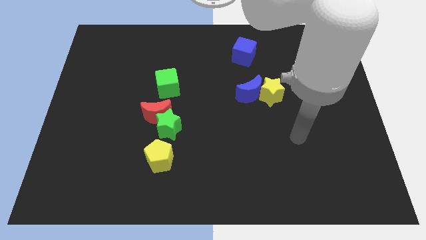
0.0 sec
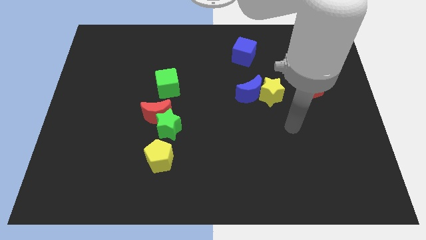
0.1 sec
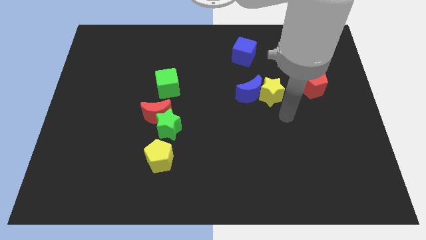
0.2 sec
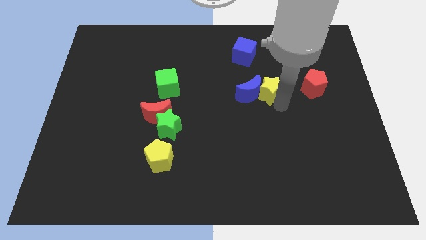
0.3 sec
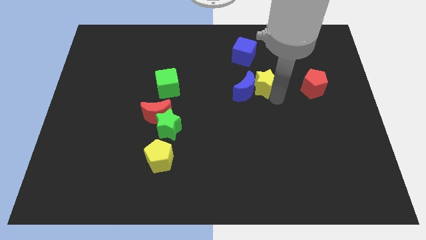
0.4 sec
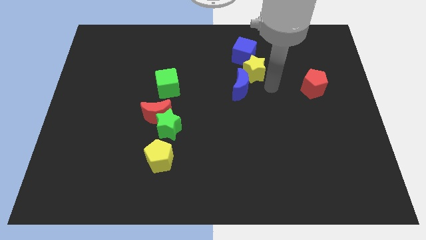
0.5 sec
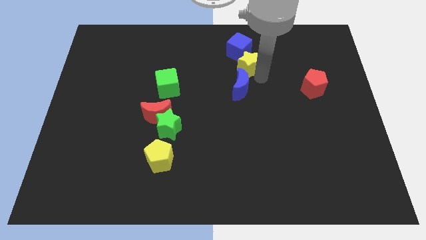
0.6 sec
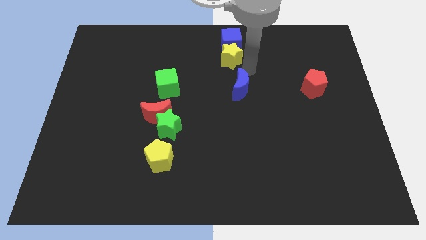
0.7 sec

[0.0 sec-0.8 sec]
separate the blue moon from the yellow star

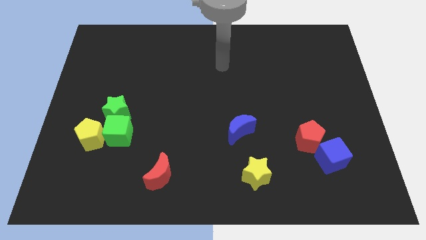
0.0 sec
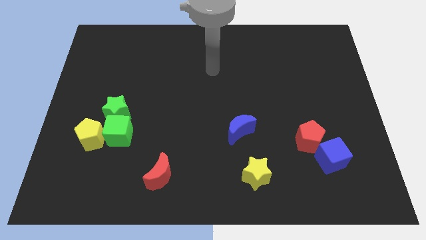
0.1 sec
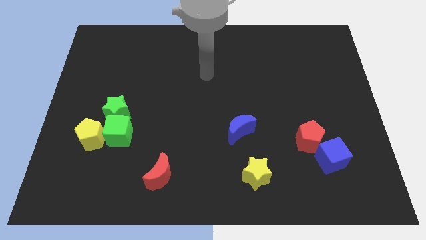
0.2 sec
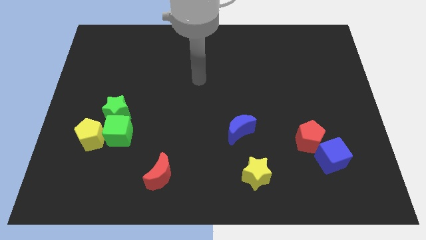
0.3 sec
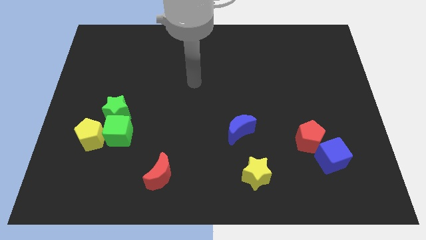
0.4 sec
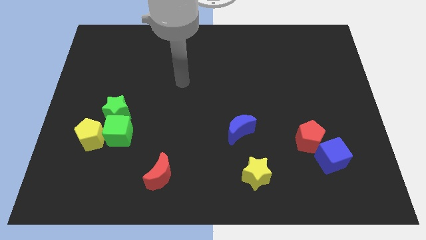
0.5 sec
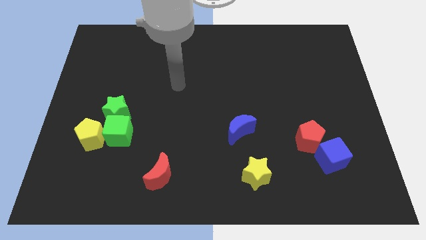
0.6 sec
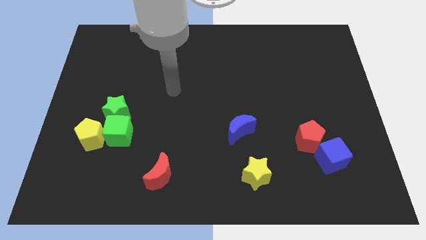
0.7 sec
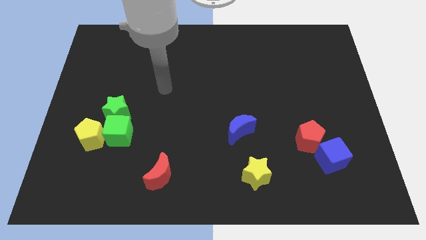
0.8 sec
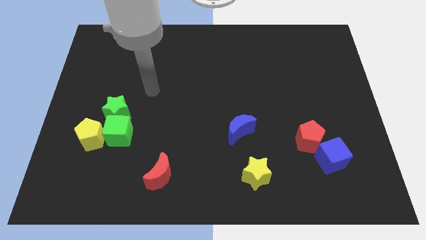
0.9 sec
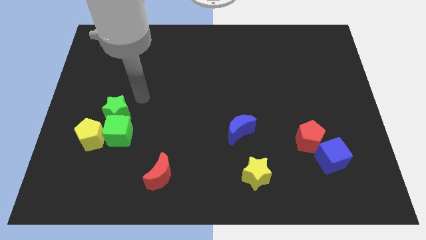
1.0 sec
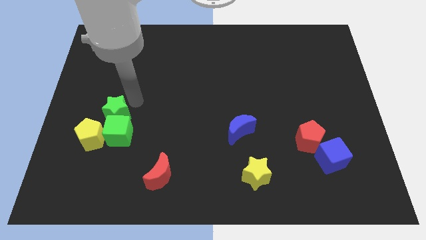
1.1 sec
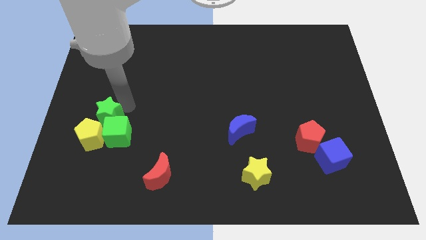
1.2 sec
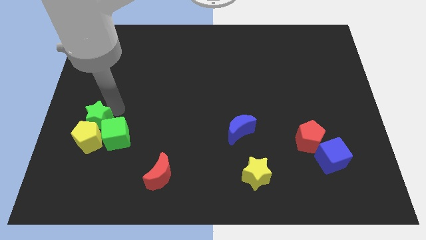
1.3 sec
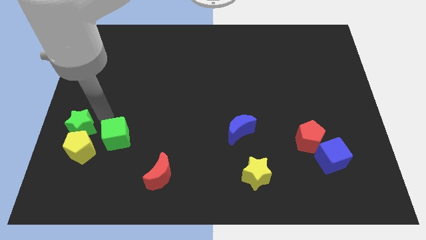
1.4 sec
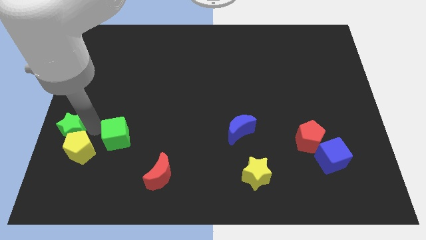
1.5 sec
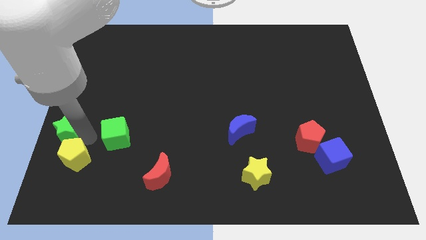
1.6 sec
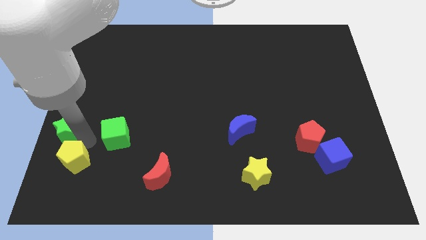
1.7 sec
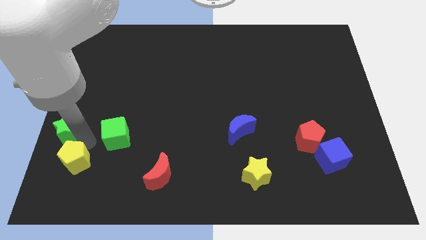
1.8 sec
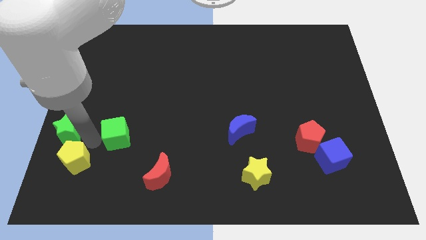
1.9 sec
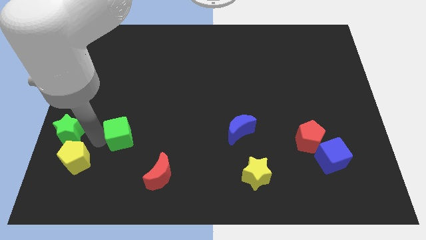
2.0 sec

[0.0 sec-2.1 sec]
move the green cube away from the green star and yellow pentagon

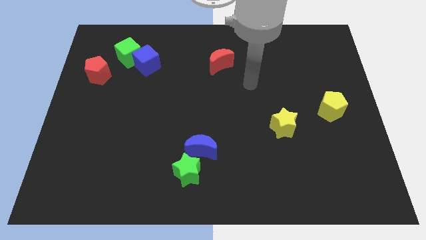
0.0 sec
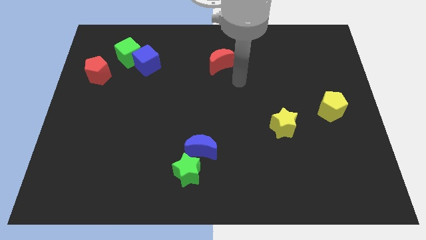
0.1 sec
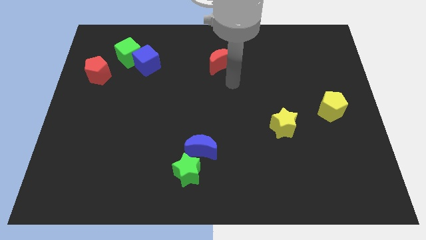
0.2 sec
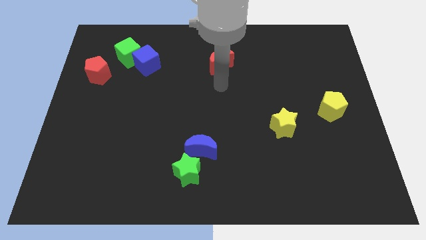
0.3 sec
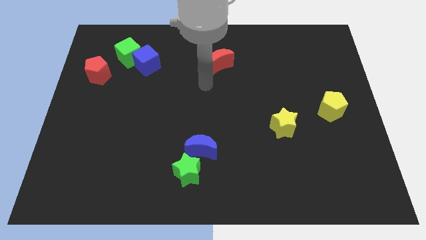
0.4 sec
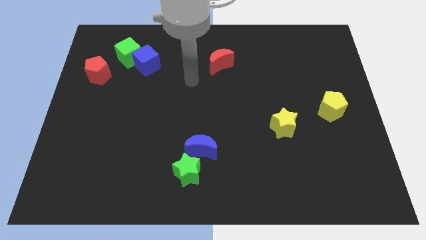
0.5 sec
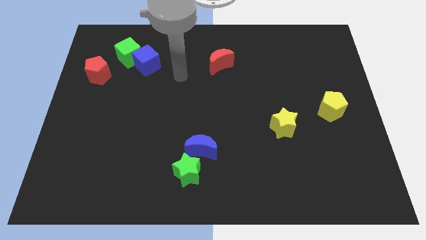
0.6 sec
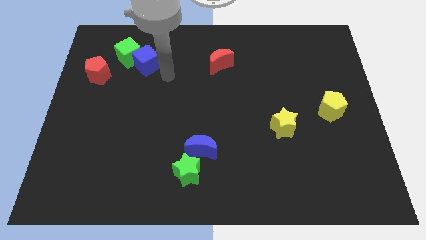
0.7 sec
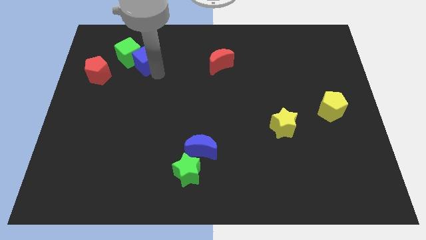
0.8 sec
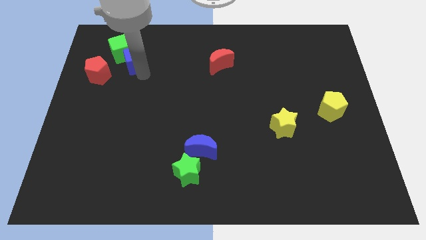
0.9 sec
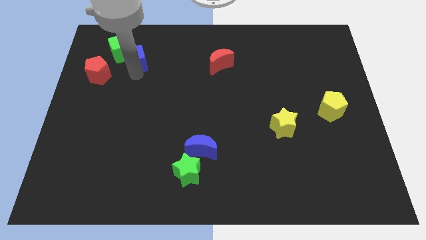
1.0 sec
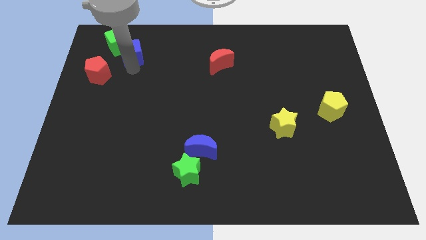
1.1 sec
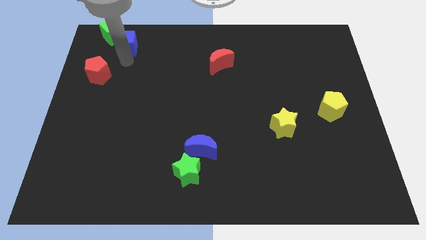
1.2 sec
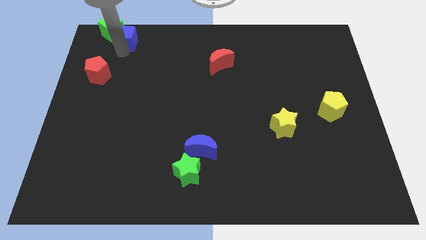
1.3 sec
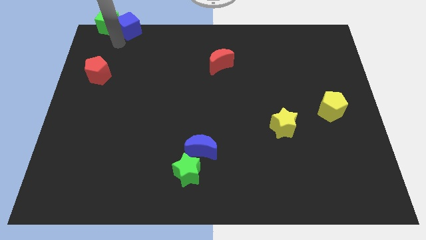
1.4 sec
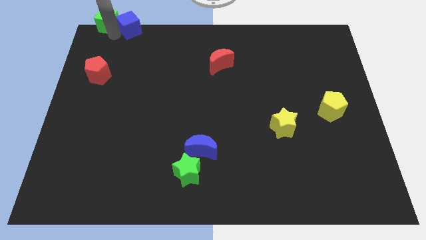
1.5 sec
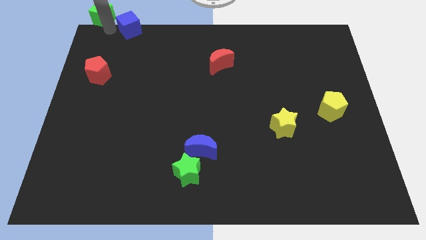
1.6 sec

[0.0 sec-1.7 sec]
separate the blue cube from the green cube

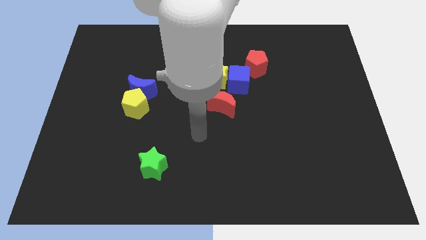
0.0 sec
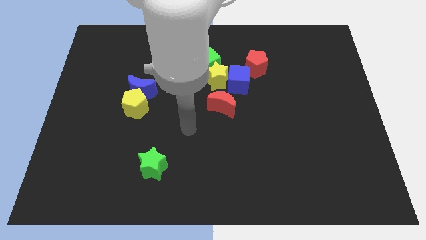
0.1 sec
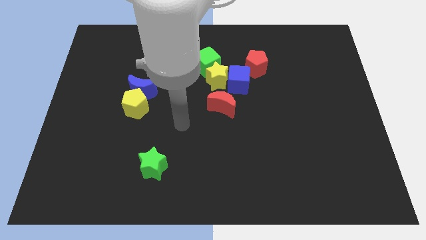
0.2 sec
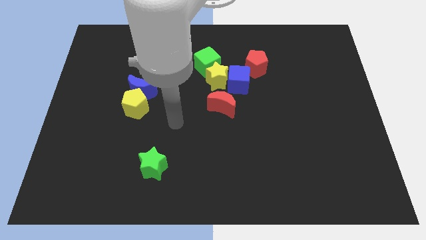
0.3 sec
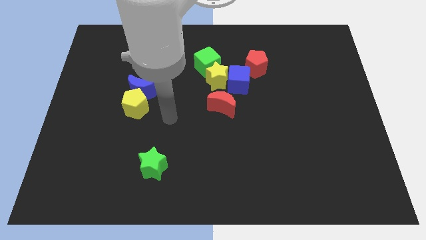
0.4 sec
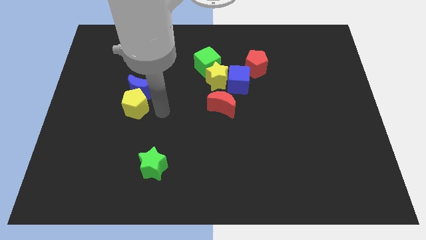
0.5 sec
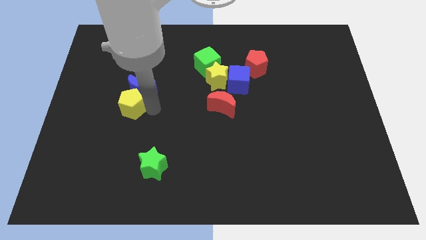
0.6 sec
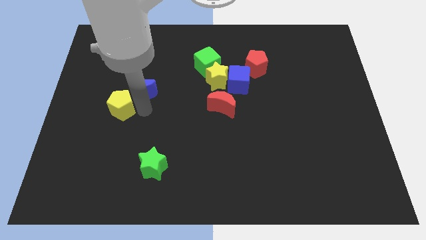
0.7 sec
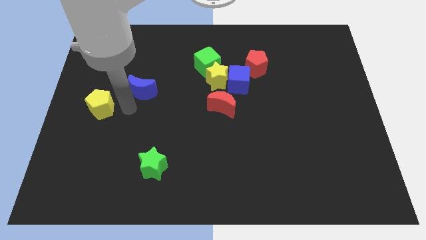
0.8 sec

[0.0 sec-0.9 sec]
separate the blue moon from the yellow pentagon

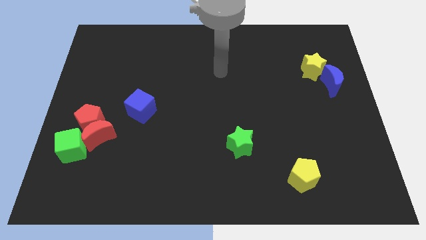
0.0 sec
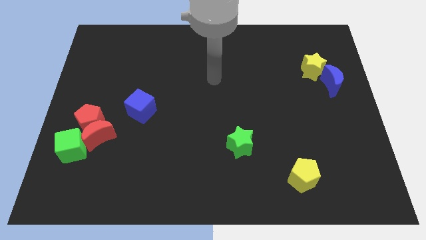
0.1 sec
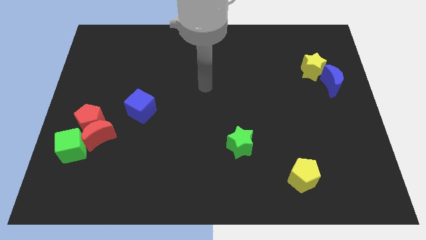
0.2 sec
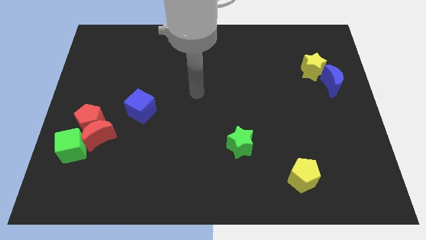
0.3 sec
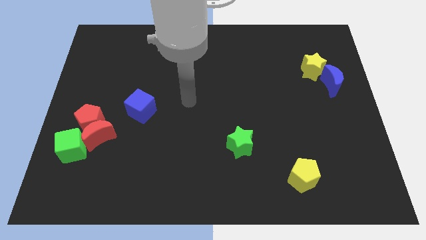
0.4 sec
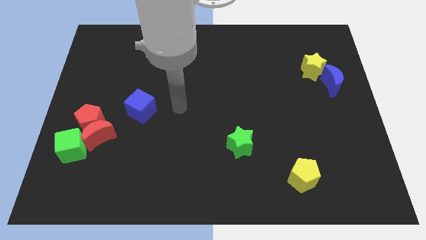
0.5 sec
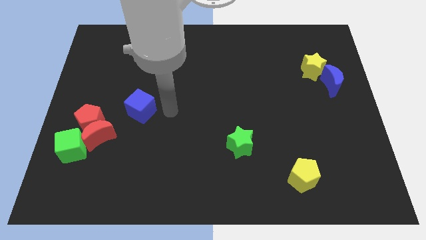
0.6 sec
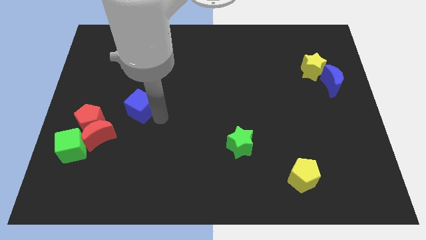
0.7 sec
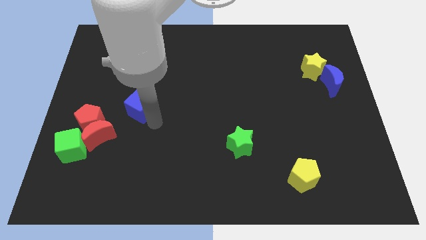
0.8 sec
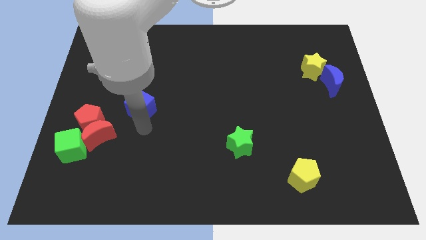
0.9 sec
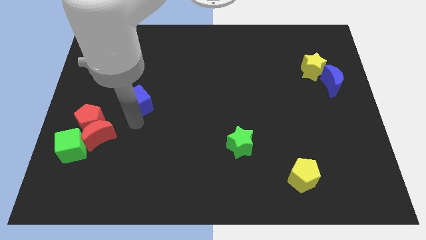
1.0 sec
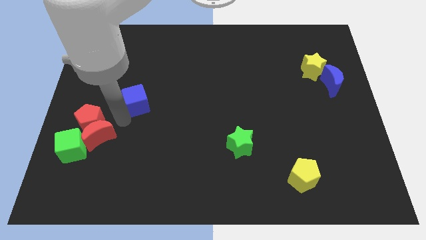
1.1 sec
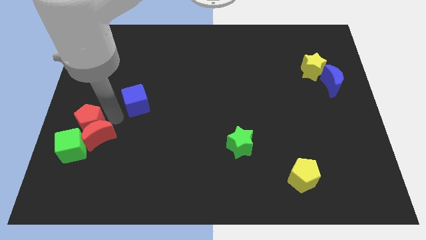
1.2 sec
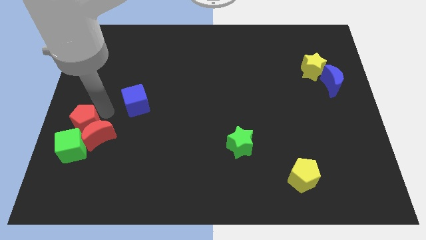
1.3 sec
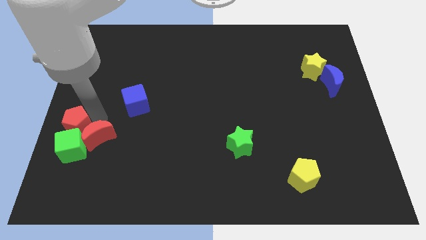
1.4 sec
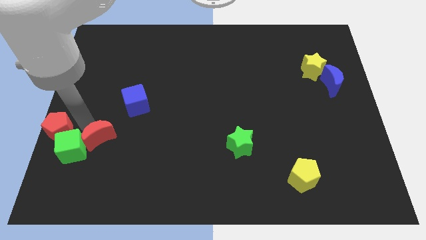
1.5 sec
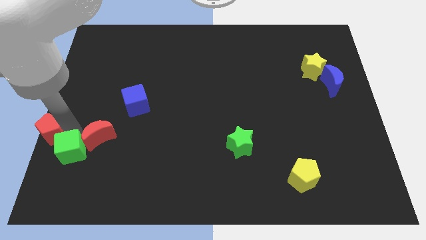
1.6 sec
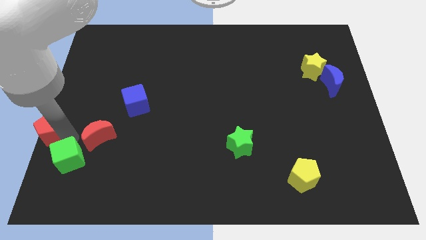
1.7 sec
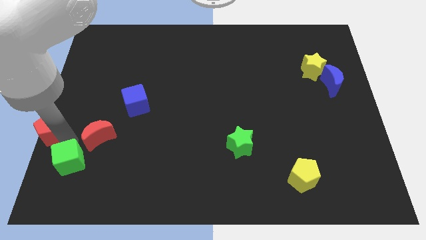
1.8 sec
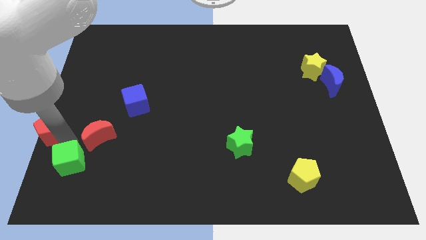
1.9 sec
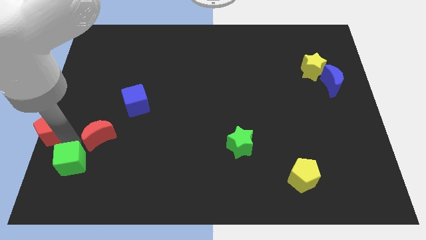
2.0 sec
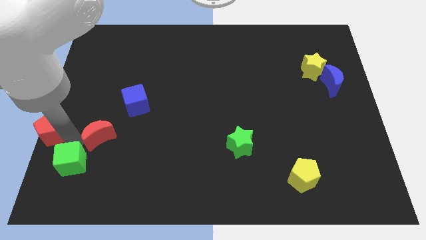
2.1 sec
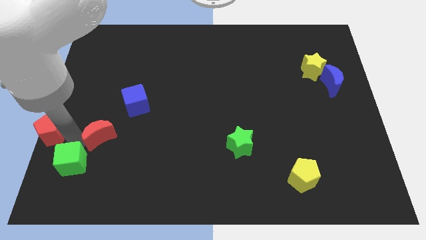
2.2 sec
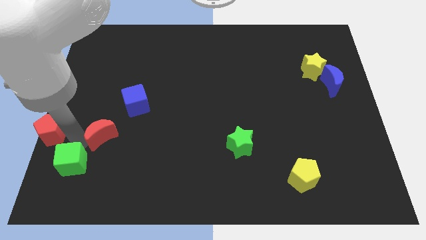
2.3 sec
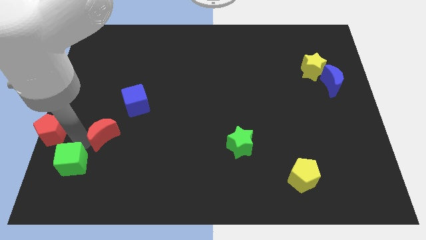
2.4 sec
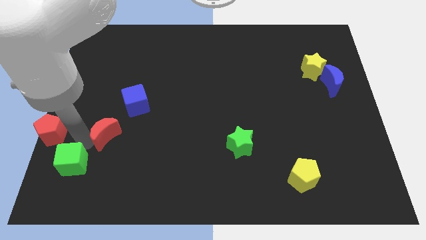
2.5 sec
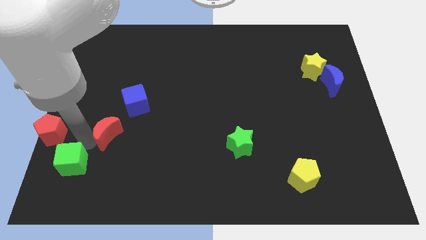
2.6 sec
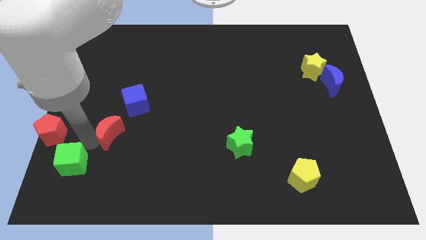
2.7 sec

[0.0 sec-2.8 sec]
pull the red moon apart from the red pentagon and green cube

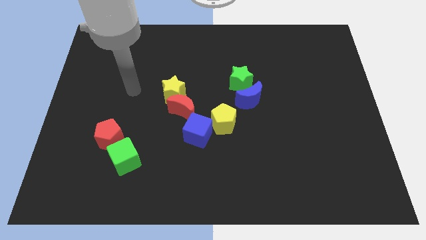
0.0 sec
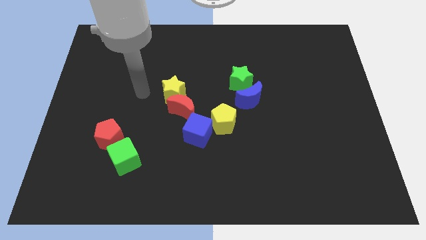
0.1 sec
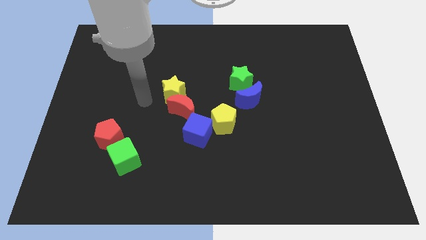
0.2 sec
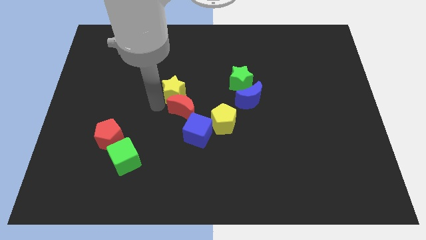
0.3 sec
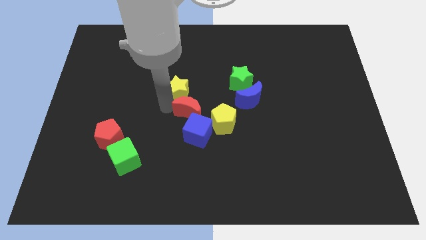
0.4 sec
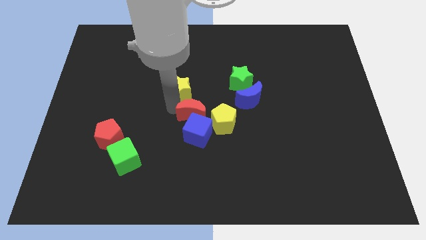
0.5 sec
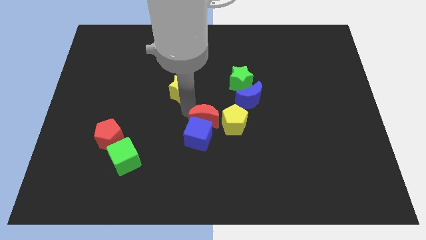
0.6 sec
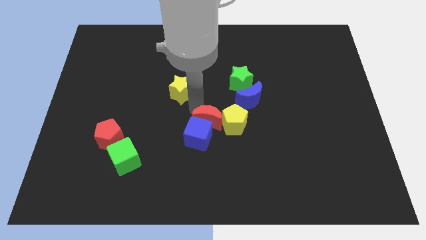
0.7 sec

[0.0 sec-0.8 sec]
pull the yellow star apart from the red moon

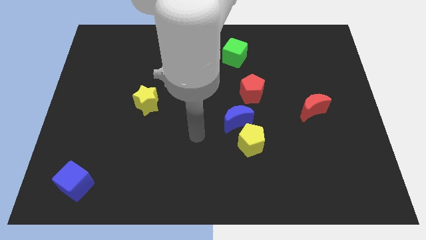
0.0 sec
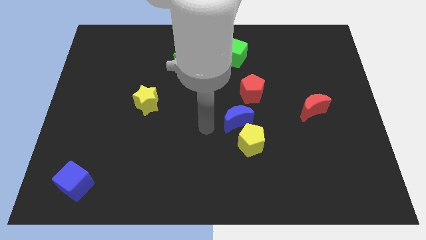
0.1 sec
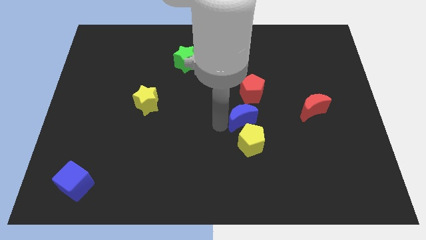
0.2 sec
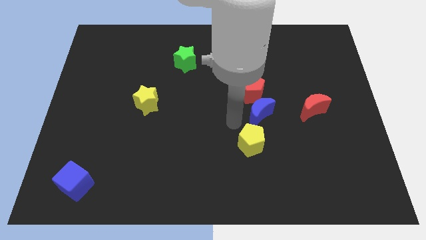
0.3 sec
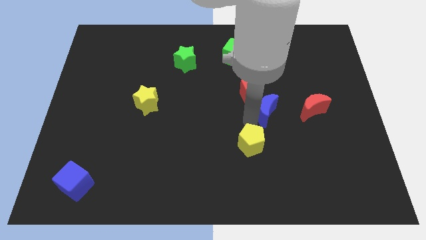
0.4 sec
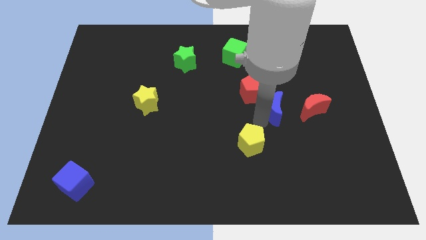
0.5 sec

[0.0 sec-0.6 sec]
separate the yellow pentagon from the blue moon
